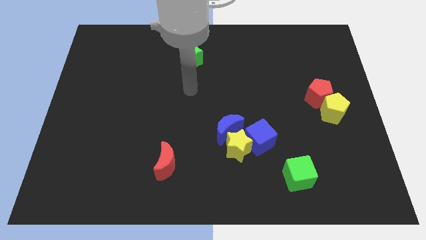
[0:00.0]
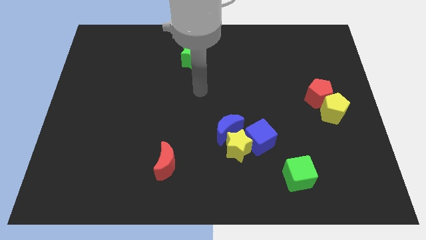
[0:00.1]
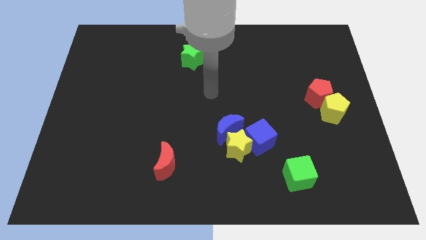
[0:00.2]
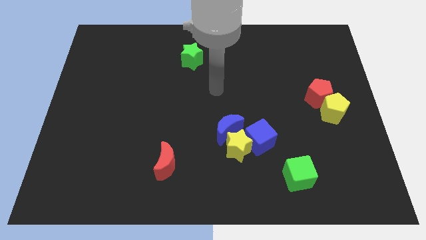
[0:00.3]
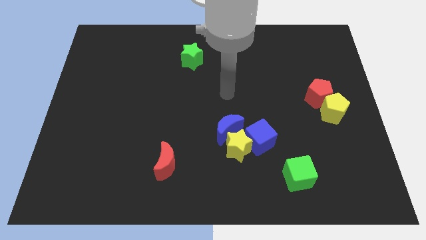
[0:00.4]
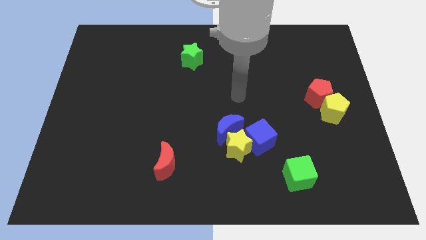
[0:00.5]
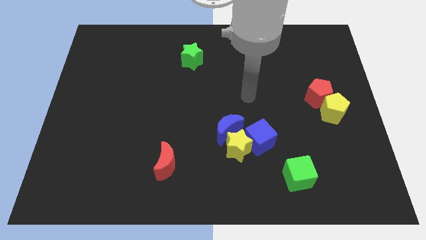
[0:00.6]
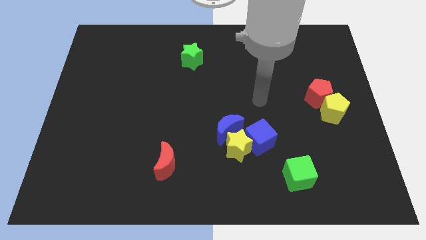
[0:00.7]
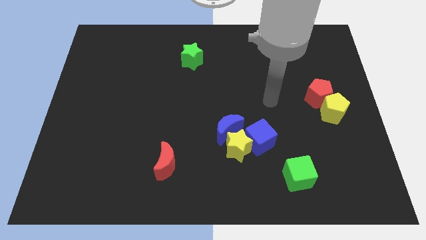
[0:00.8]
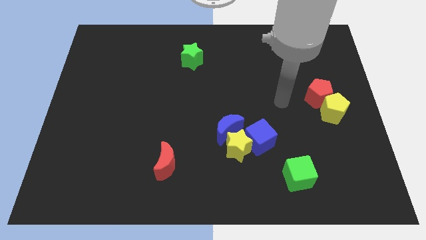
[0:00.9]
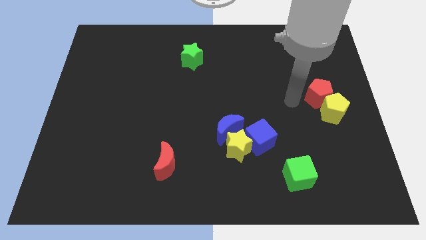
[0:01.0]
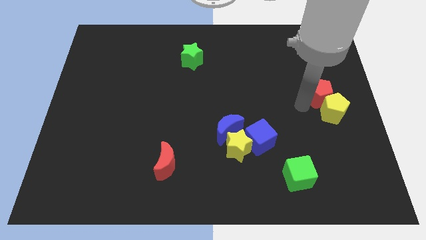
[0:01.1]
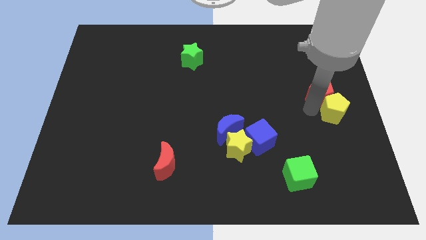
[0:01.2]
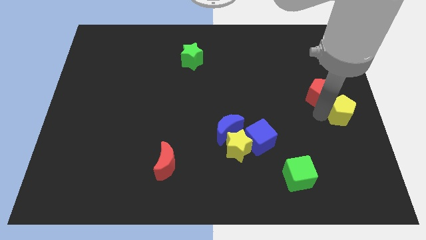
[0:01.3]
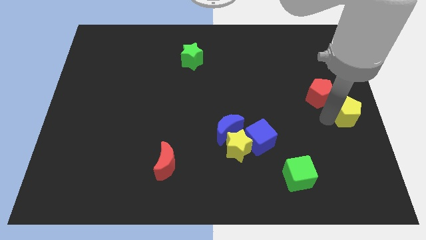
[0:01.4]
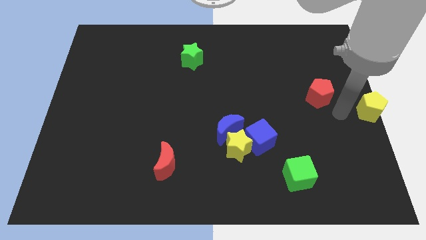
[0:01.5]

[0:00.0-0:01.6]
separate the red pentagon from the yellow pentagon

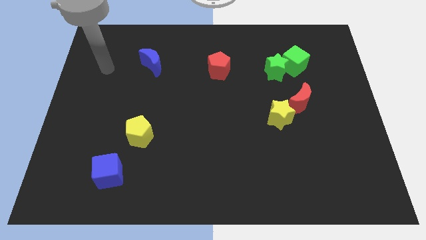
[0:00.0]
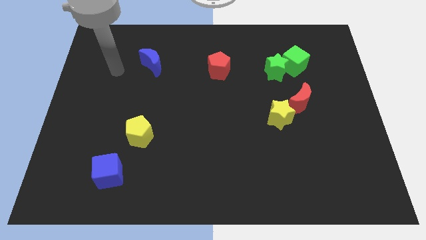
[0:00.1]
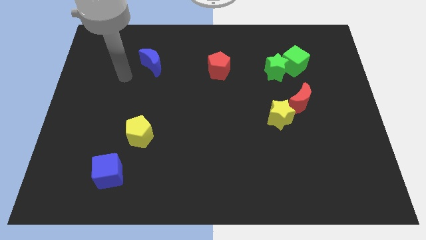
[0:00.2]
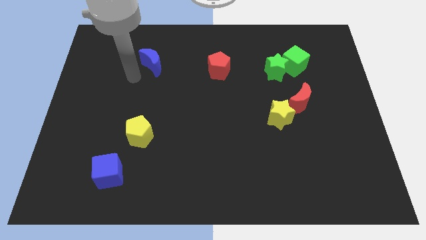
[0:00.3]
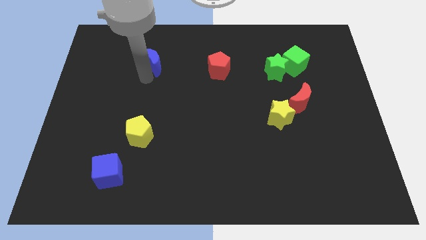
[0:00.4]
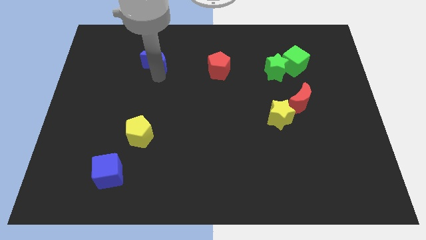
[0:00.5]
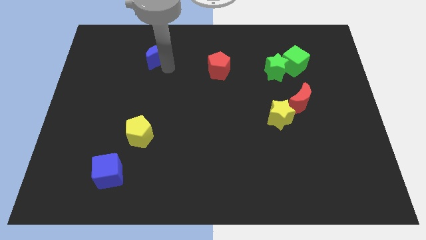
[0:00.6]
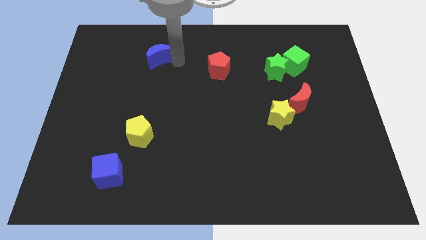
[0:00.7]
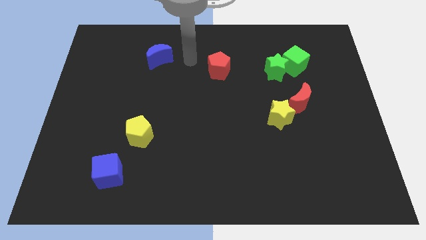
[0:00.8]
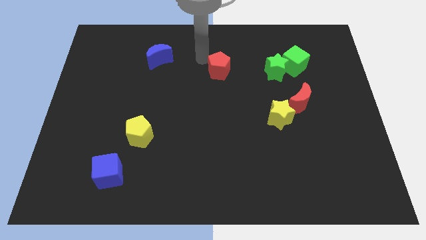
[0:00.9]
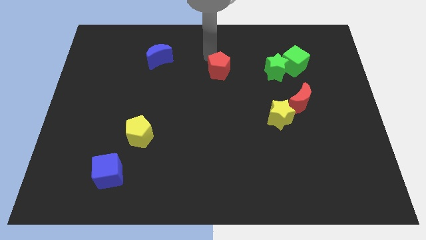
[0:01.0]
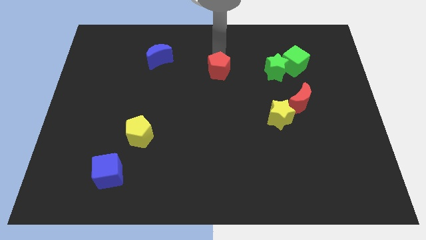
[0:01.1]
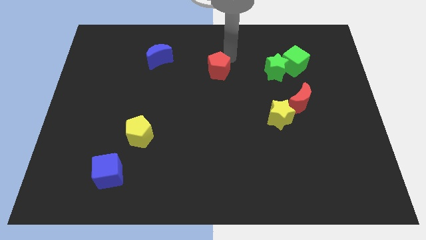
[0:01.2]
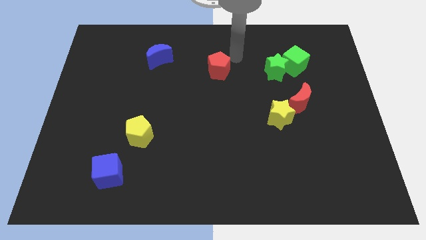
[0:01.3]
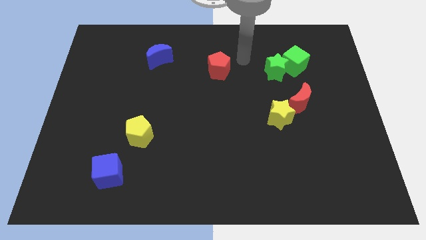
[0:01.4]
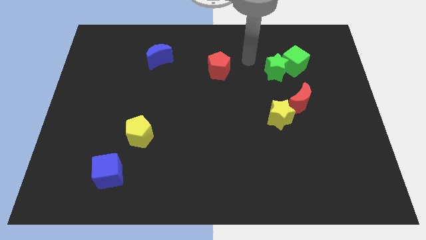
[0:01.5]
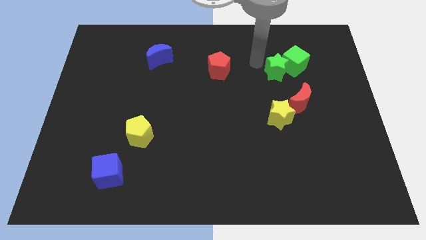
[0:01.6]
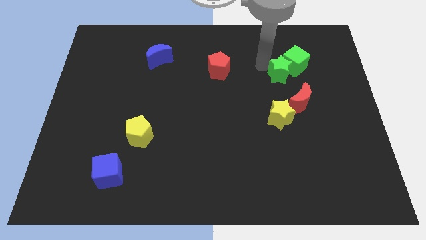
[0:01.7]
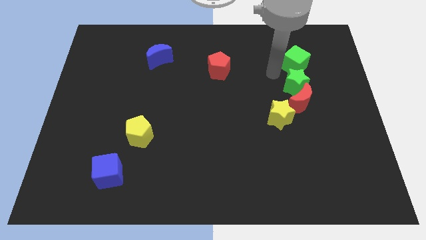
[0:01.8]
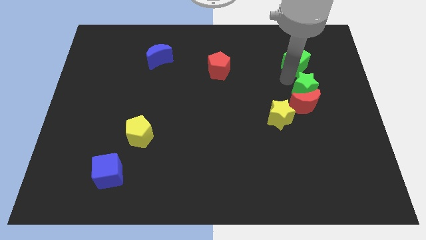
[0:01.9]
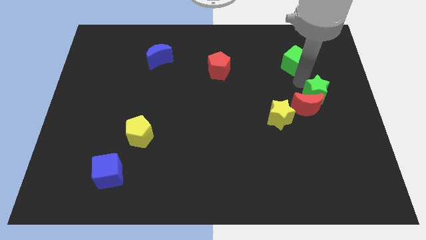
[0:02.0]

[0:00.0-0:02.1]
move the green cube away from the green star

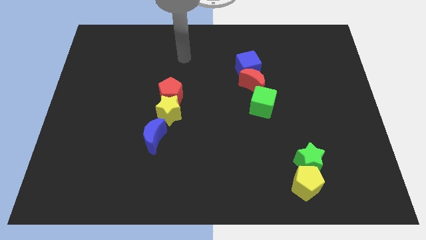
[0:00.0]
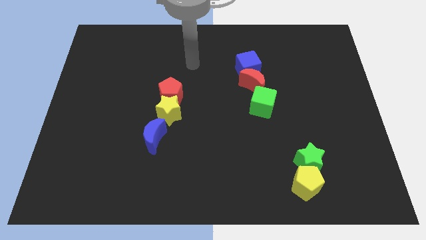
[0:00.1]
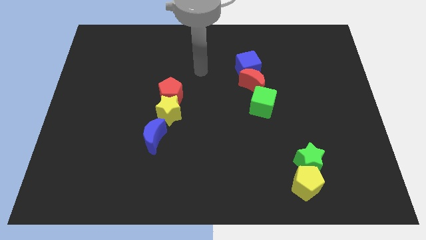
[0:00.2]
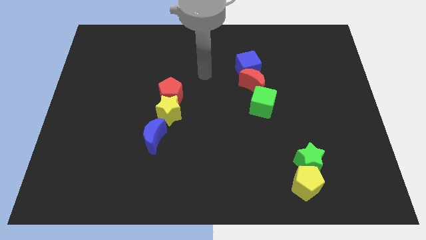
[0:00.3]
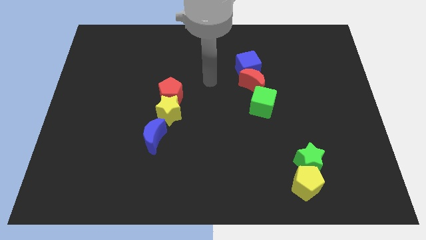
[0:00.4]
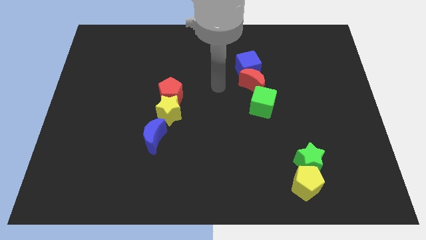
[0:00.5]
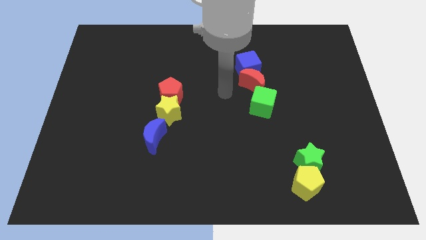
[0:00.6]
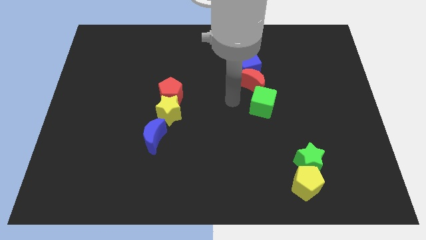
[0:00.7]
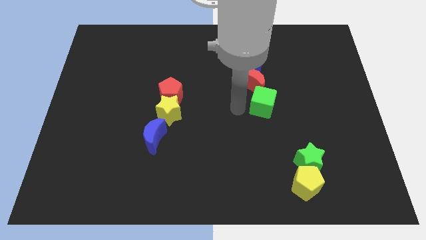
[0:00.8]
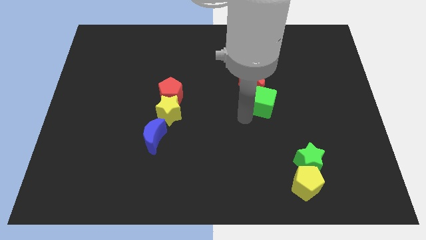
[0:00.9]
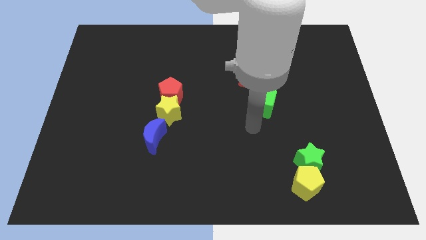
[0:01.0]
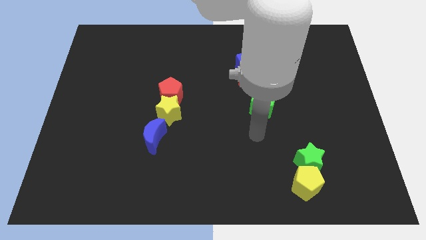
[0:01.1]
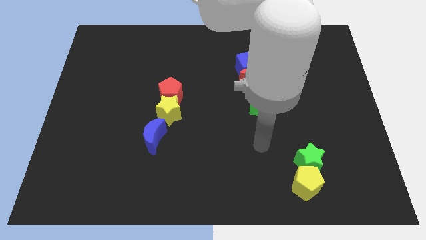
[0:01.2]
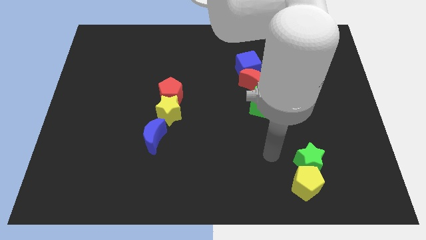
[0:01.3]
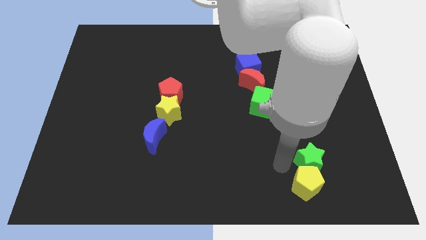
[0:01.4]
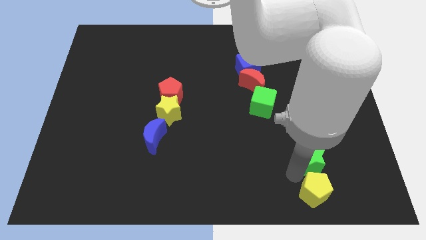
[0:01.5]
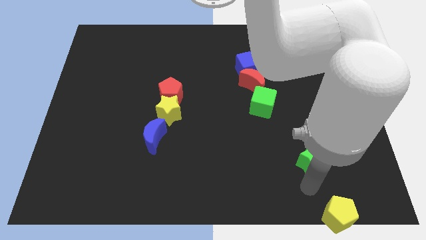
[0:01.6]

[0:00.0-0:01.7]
separate the green star from the yellow pentagon

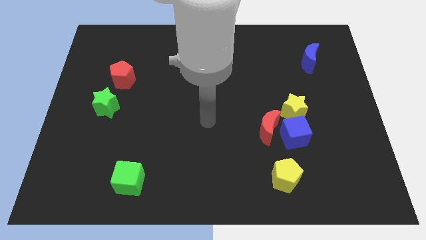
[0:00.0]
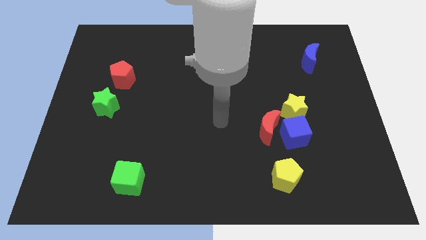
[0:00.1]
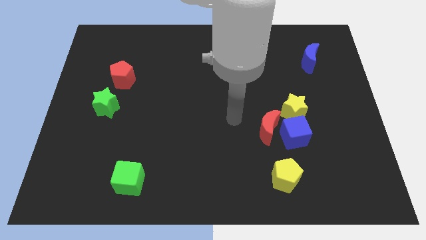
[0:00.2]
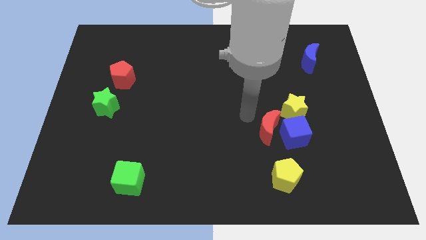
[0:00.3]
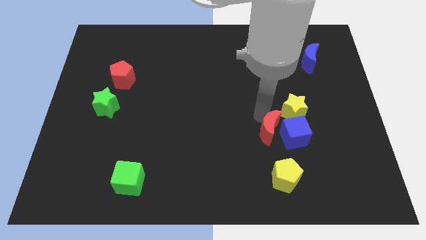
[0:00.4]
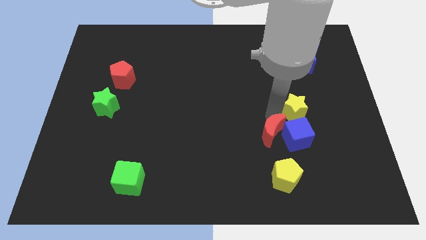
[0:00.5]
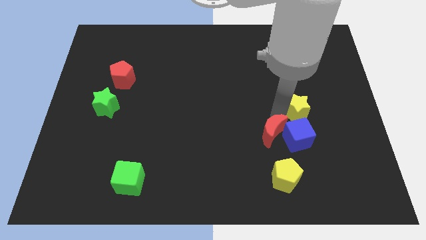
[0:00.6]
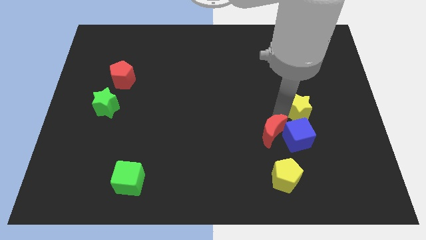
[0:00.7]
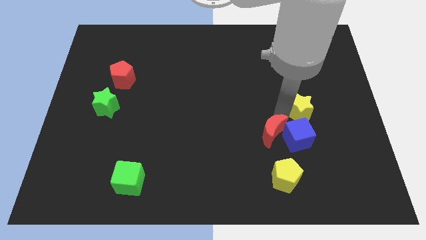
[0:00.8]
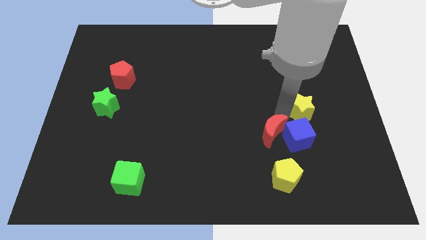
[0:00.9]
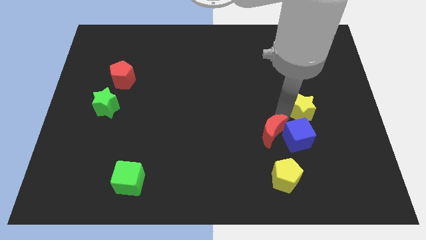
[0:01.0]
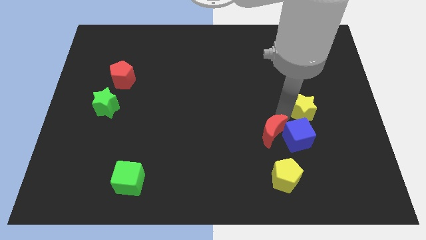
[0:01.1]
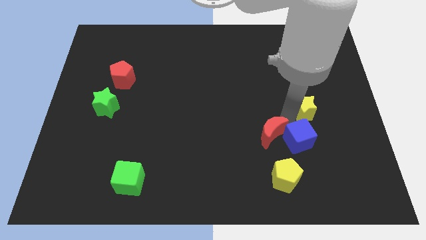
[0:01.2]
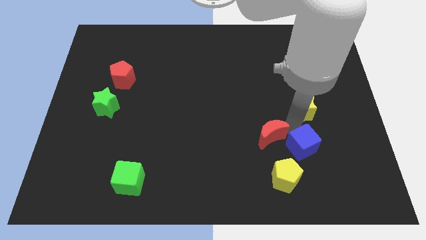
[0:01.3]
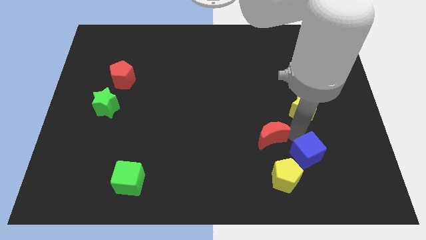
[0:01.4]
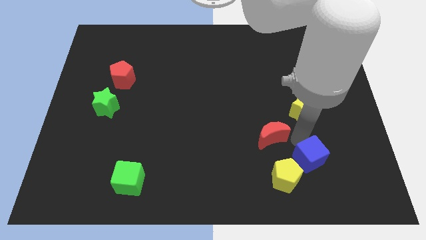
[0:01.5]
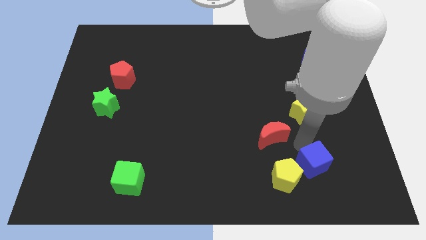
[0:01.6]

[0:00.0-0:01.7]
pull the blue cube apart from the red moon and yellow star

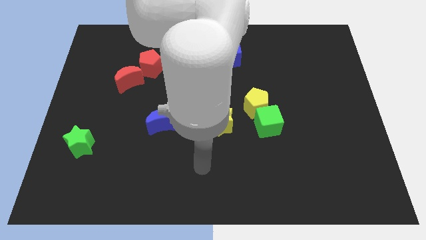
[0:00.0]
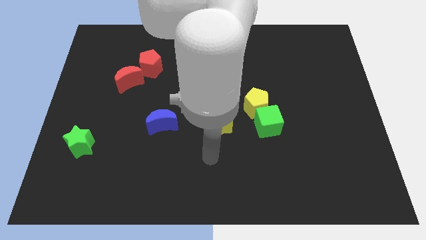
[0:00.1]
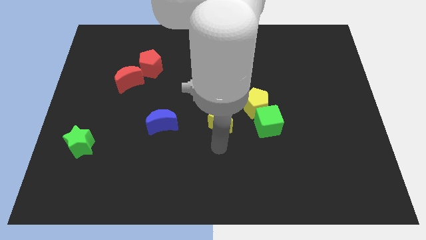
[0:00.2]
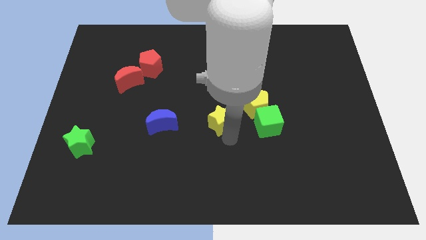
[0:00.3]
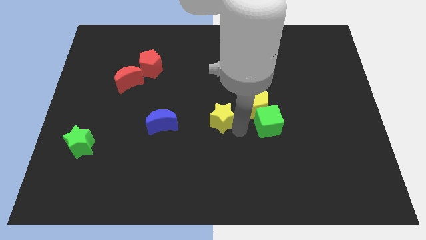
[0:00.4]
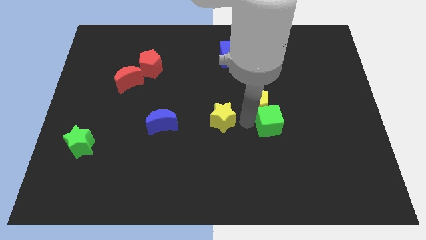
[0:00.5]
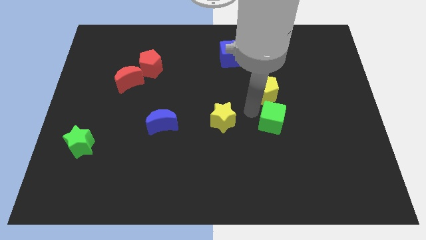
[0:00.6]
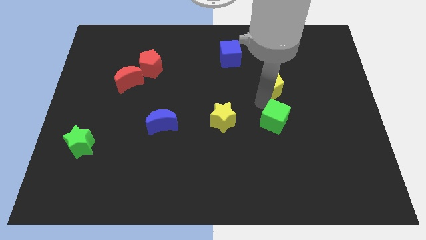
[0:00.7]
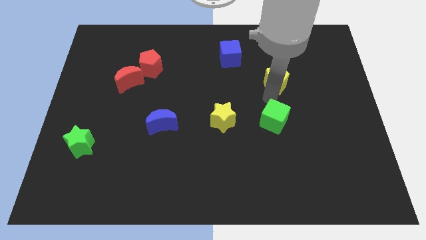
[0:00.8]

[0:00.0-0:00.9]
move the green cube away from the yellow pentagon

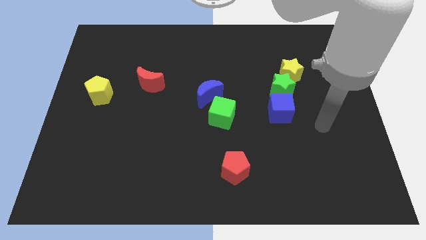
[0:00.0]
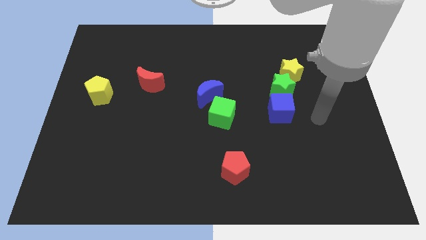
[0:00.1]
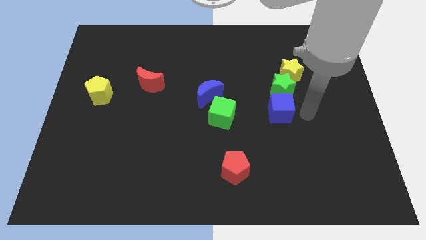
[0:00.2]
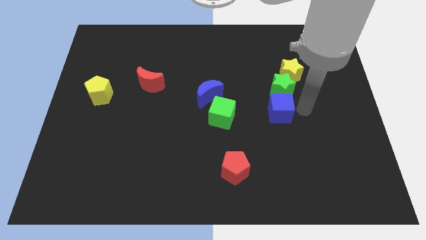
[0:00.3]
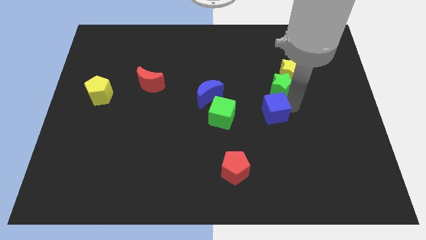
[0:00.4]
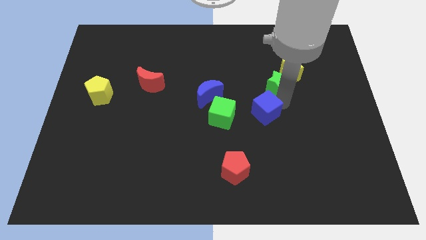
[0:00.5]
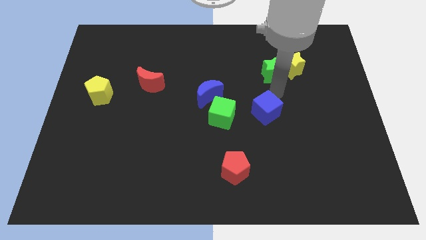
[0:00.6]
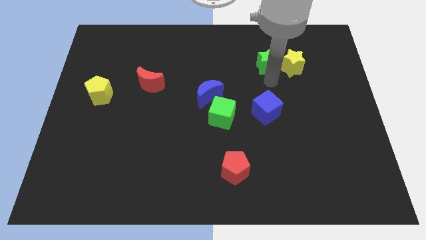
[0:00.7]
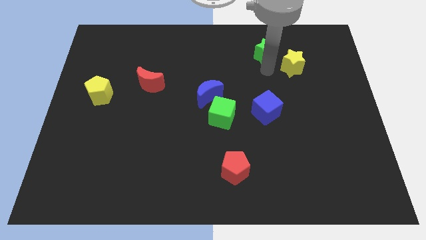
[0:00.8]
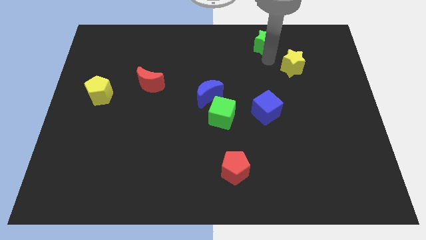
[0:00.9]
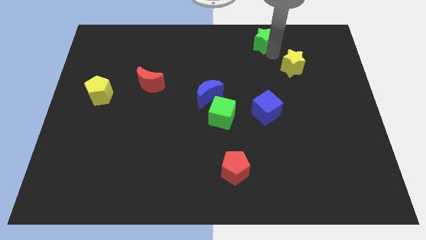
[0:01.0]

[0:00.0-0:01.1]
move the yellow star away from the green star

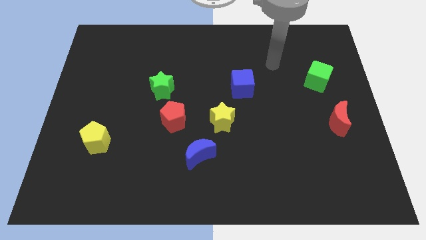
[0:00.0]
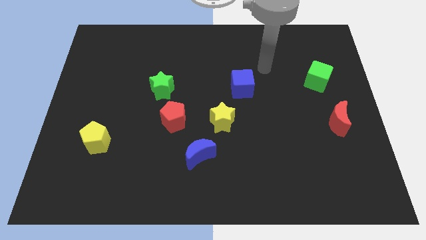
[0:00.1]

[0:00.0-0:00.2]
move the red pentagon away from the green star
